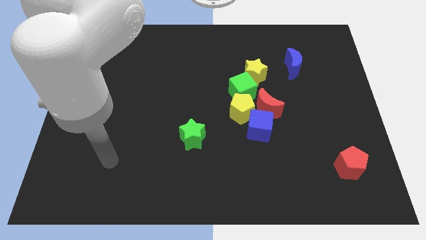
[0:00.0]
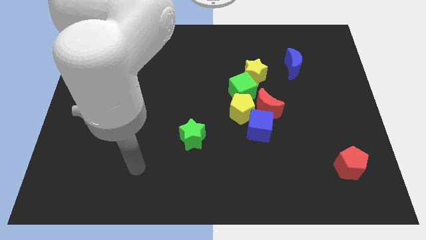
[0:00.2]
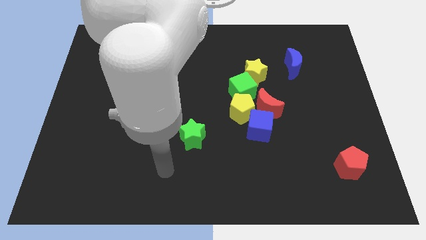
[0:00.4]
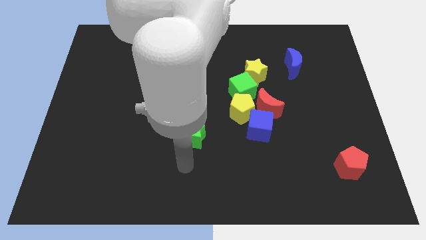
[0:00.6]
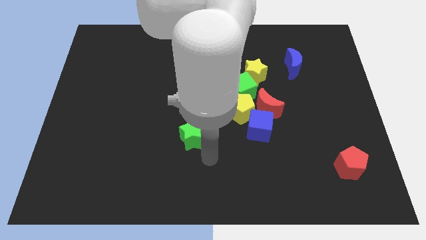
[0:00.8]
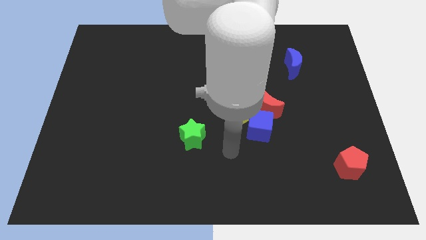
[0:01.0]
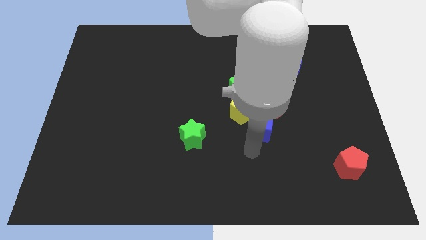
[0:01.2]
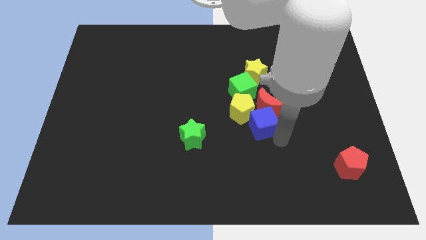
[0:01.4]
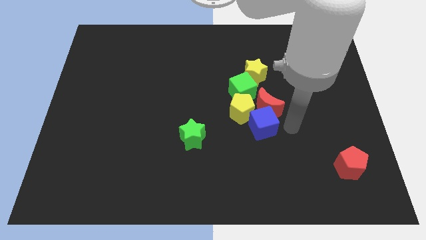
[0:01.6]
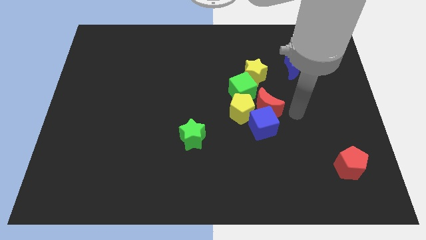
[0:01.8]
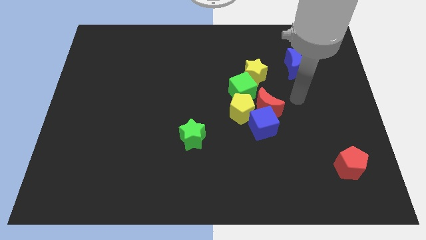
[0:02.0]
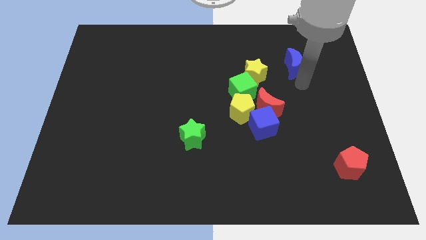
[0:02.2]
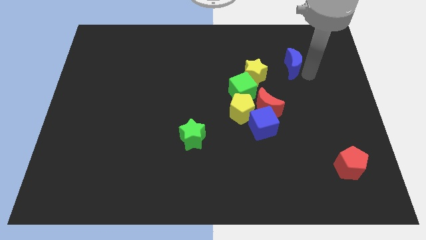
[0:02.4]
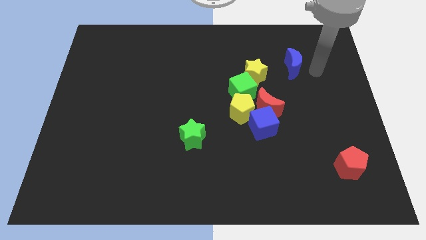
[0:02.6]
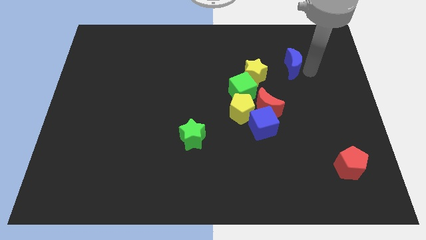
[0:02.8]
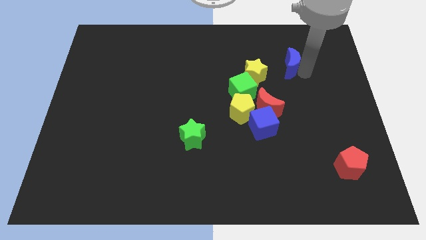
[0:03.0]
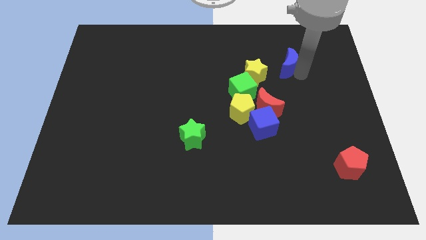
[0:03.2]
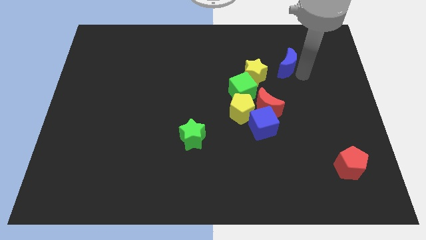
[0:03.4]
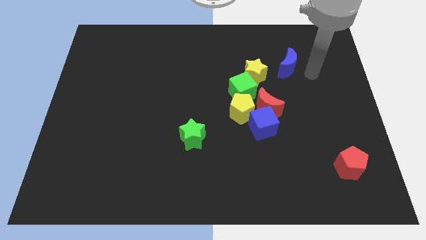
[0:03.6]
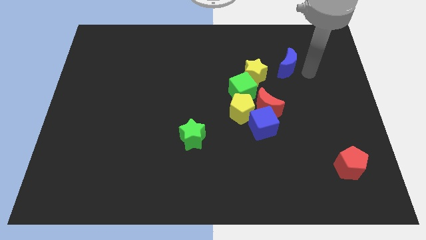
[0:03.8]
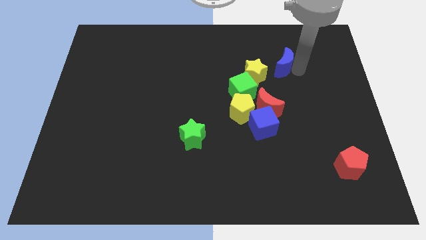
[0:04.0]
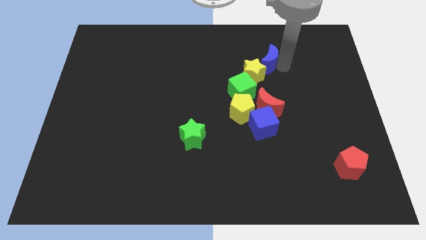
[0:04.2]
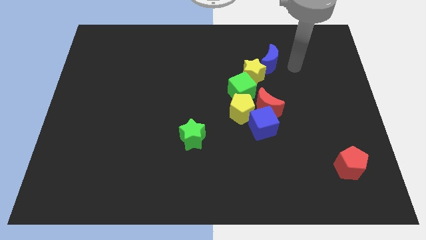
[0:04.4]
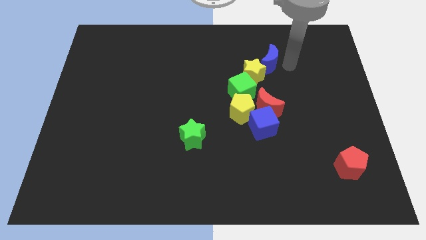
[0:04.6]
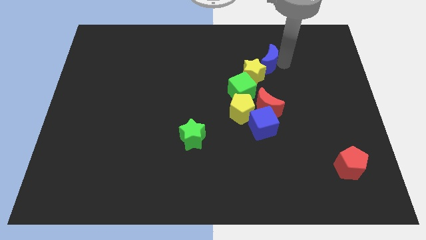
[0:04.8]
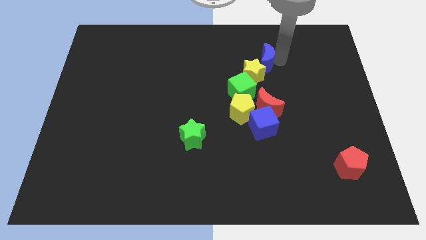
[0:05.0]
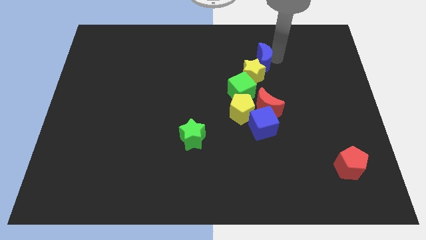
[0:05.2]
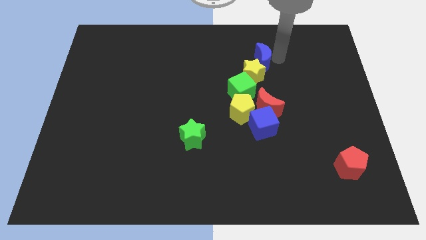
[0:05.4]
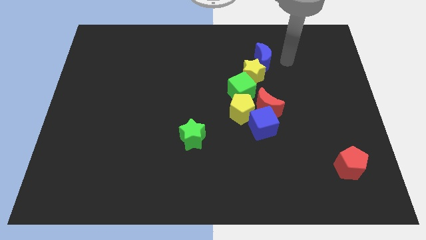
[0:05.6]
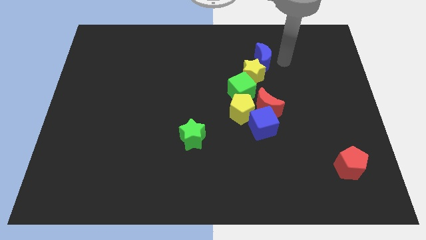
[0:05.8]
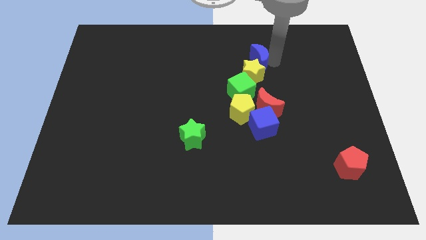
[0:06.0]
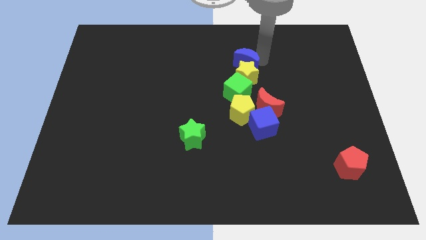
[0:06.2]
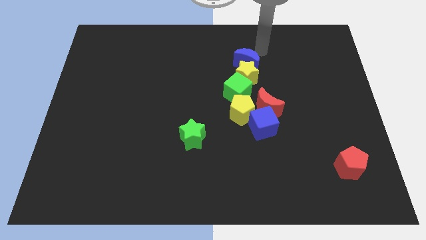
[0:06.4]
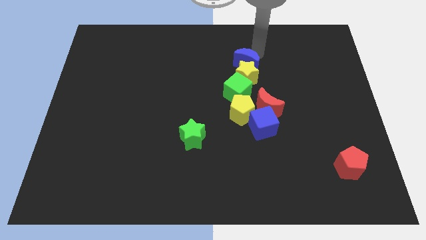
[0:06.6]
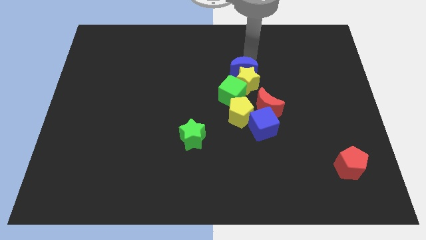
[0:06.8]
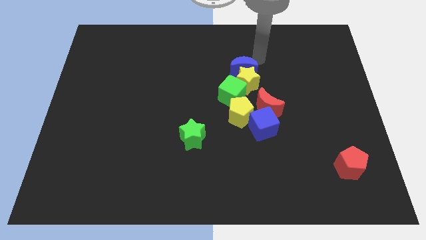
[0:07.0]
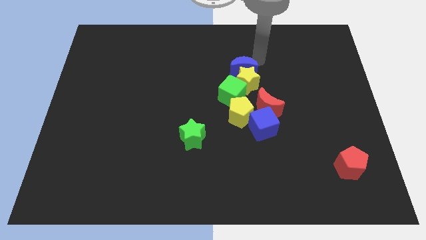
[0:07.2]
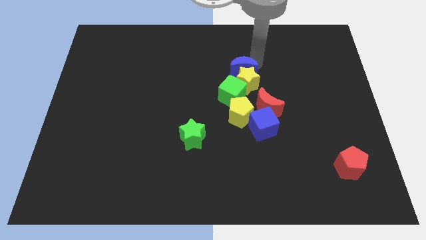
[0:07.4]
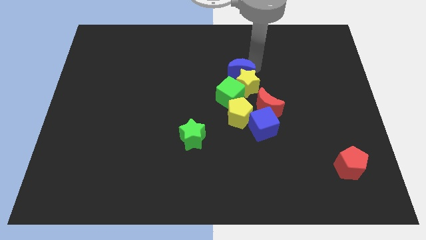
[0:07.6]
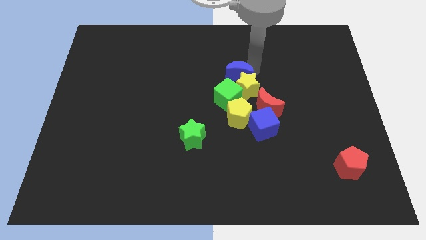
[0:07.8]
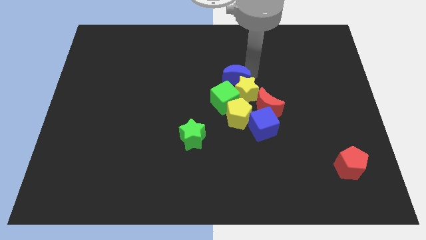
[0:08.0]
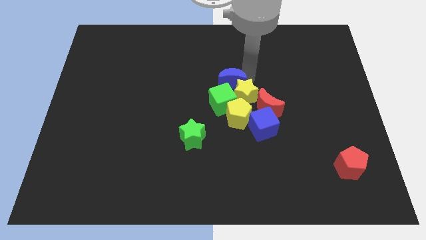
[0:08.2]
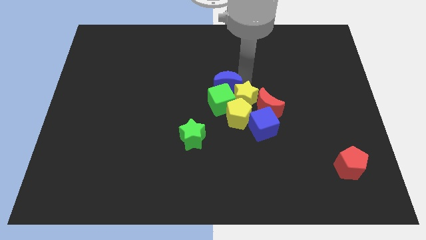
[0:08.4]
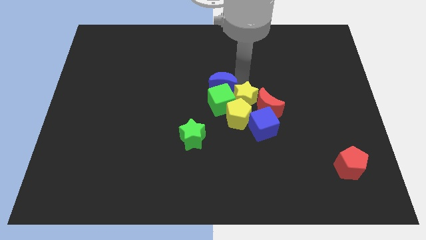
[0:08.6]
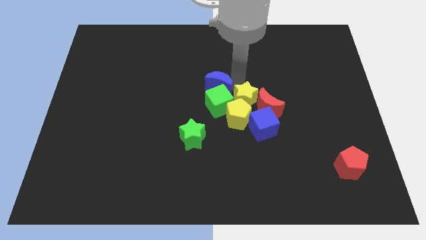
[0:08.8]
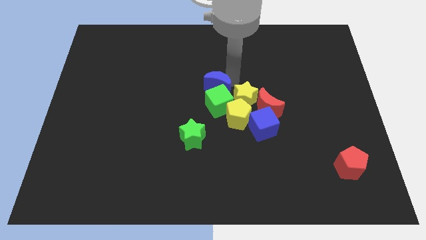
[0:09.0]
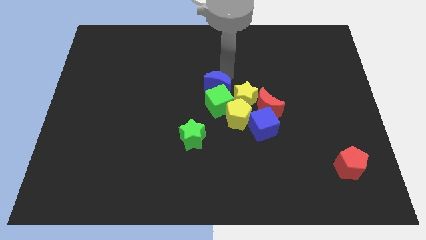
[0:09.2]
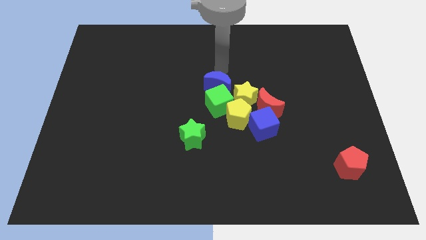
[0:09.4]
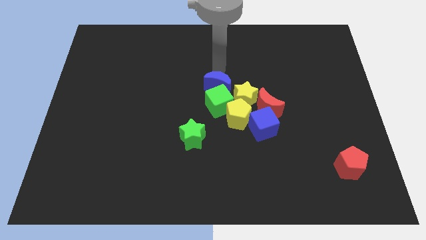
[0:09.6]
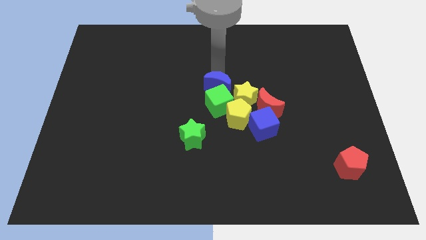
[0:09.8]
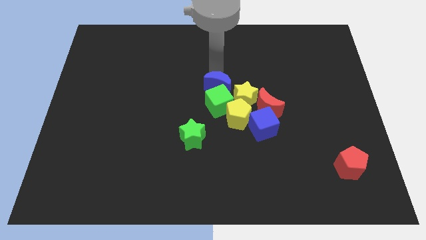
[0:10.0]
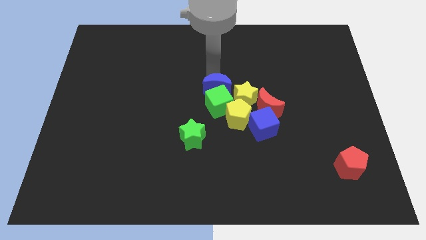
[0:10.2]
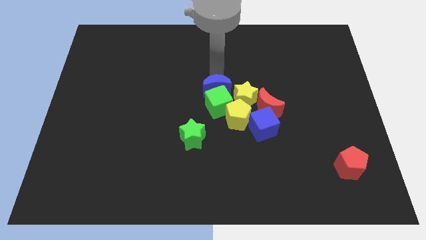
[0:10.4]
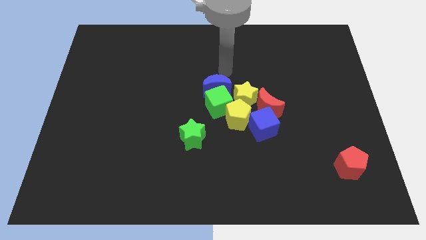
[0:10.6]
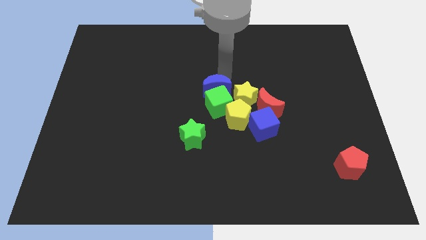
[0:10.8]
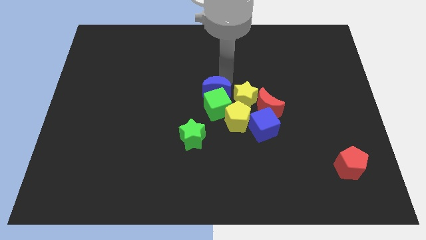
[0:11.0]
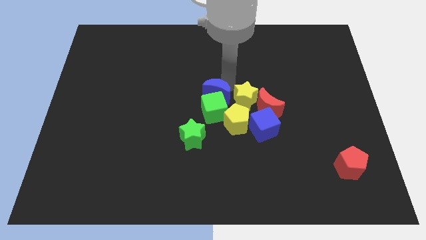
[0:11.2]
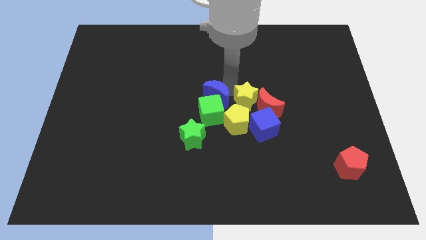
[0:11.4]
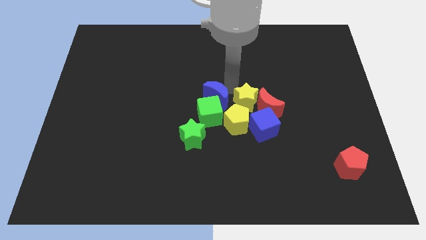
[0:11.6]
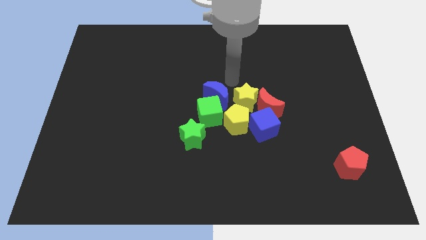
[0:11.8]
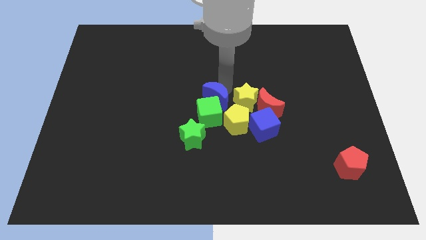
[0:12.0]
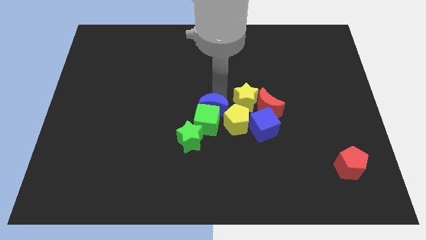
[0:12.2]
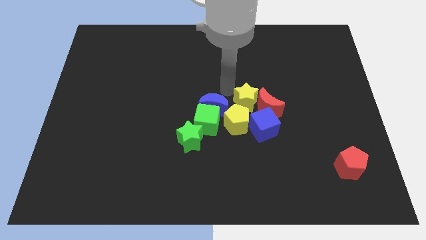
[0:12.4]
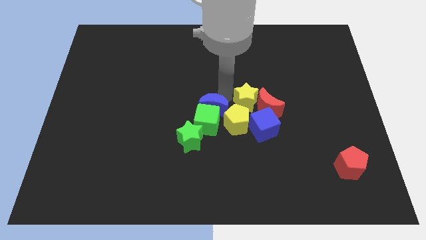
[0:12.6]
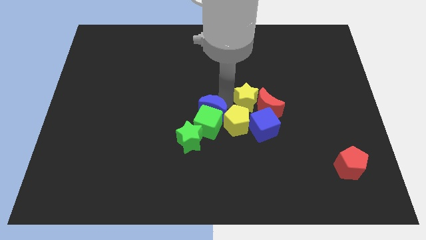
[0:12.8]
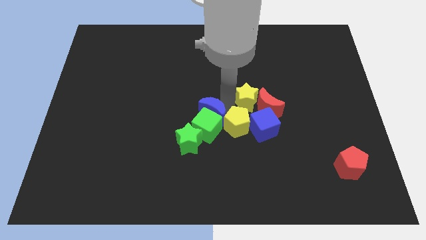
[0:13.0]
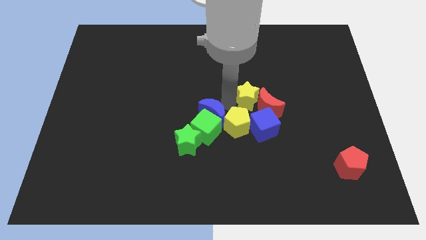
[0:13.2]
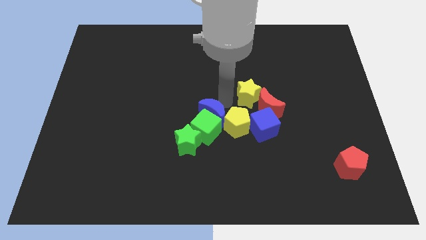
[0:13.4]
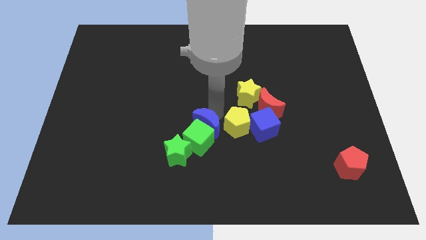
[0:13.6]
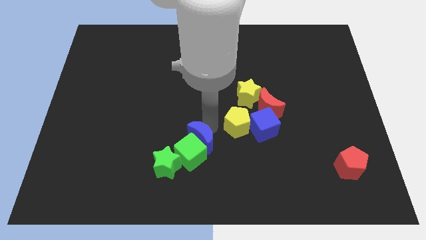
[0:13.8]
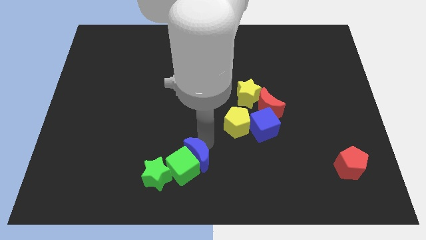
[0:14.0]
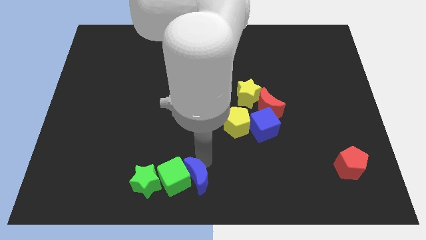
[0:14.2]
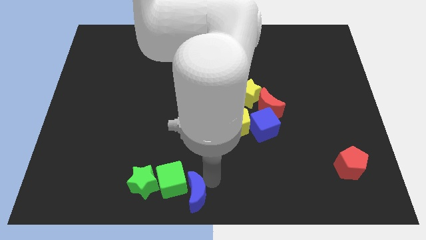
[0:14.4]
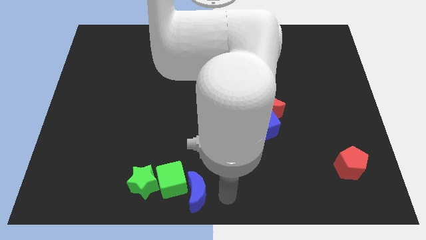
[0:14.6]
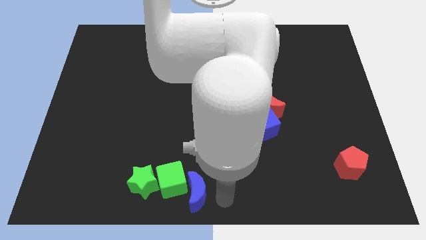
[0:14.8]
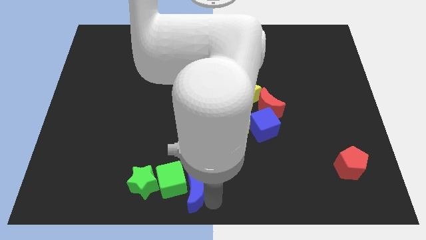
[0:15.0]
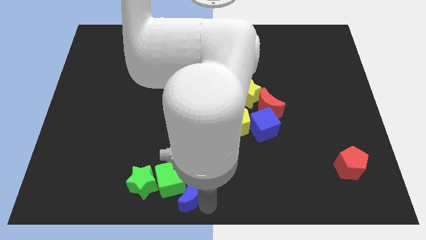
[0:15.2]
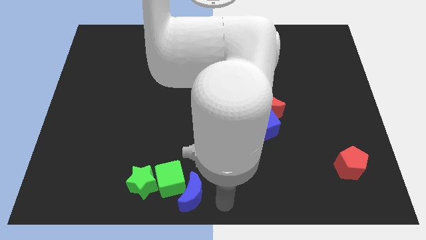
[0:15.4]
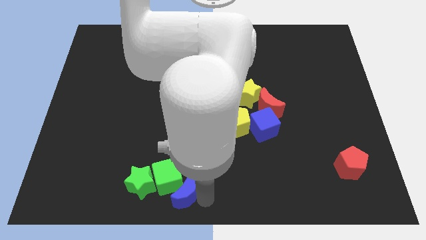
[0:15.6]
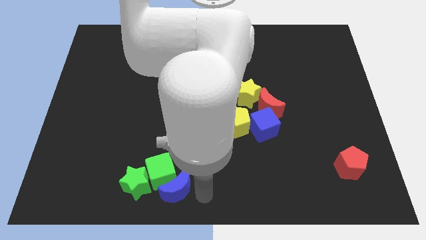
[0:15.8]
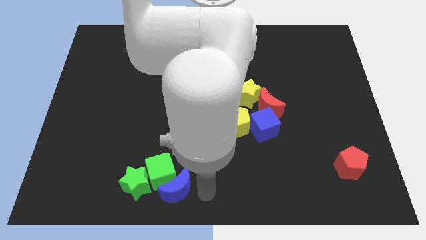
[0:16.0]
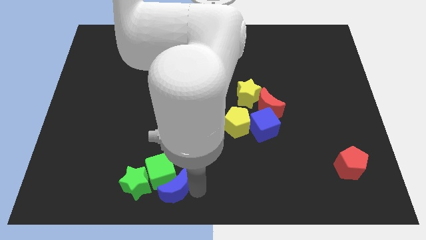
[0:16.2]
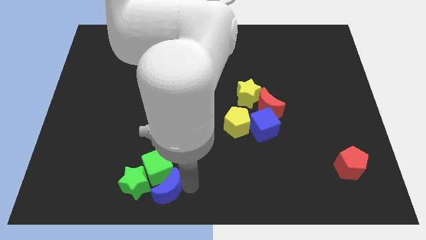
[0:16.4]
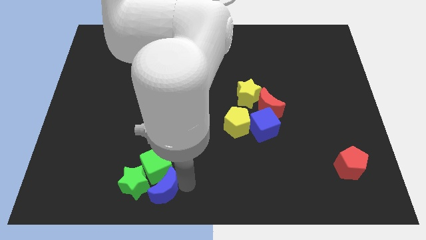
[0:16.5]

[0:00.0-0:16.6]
slide the blue moon towards the green star
